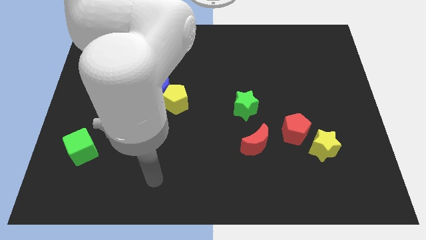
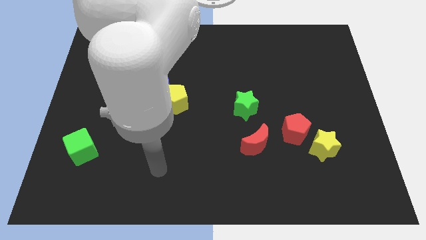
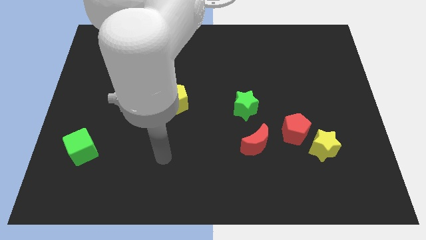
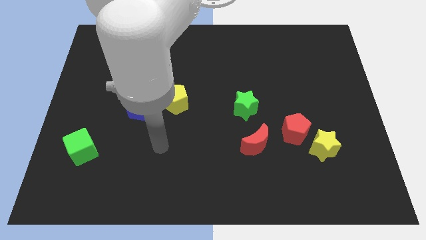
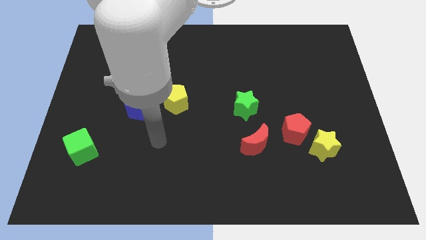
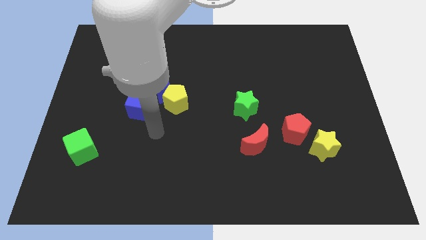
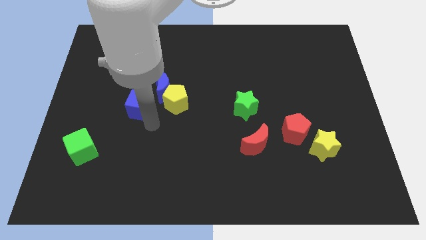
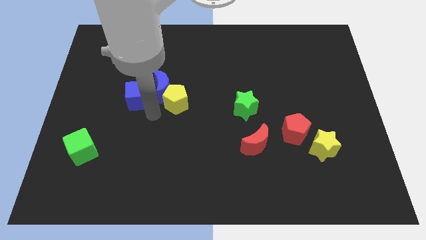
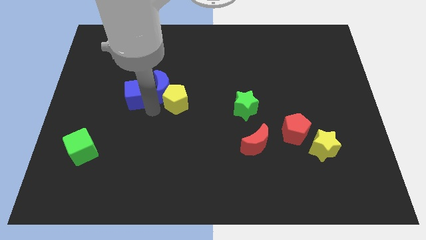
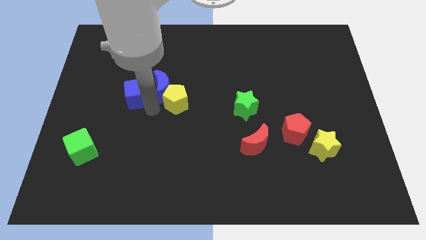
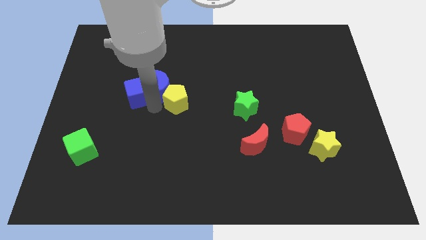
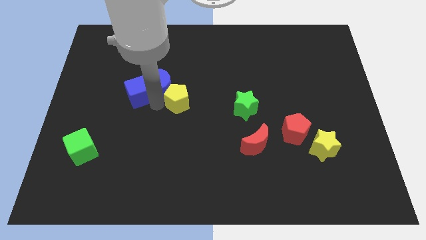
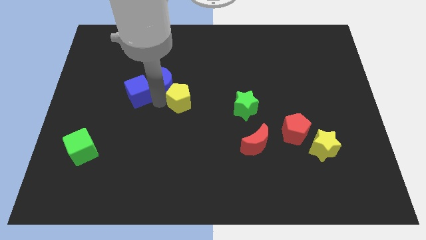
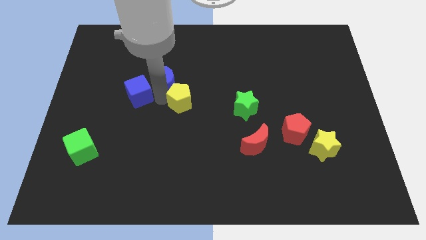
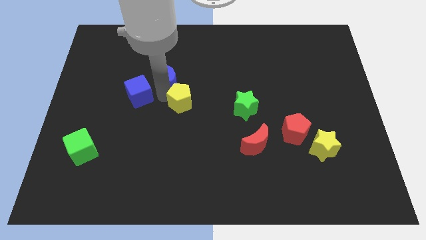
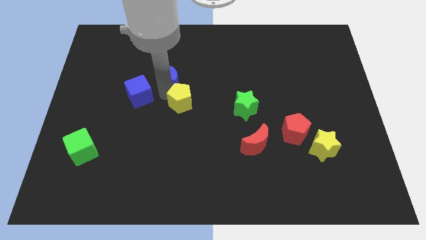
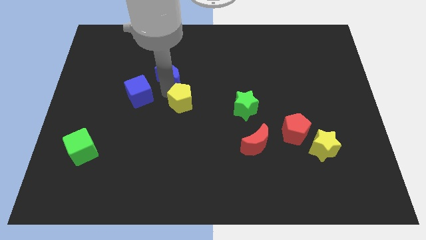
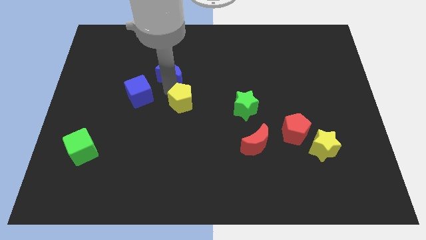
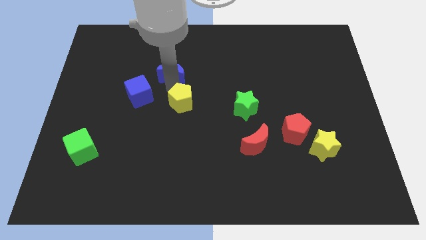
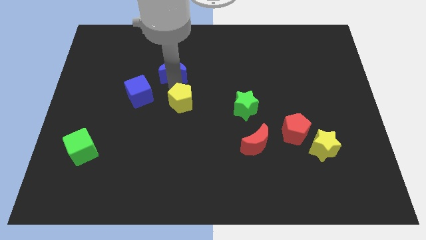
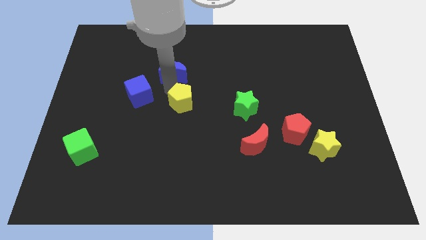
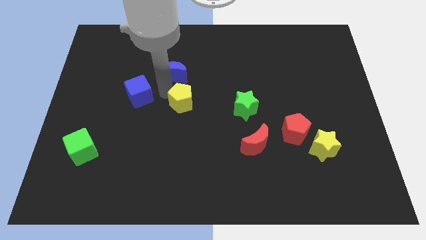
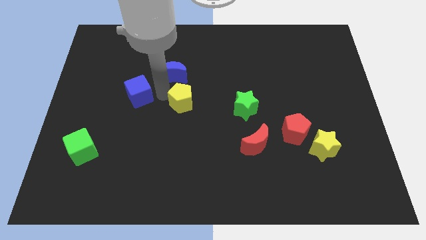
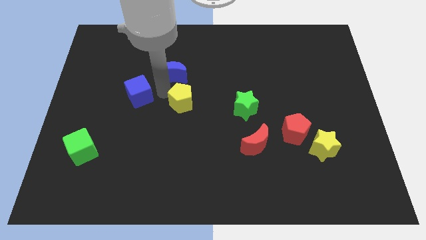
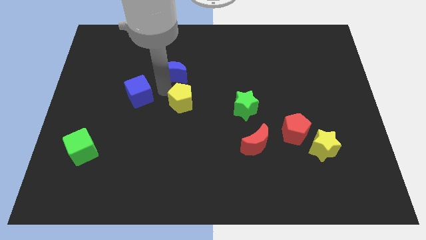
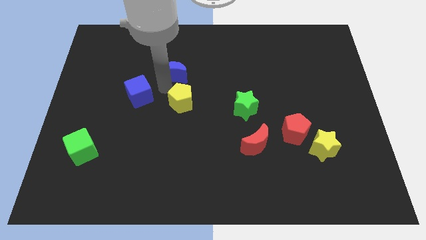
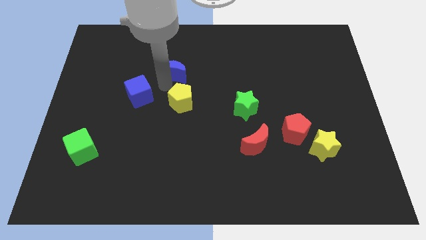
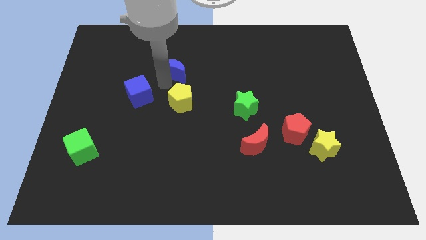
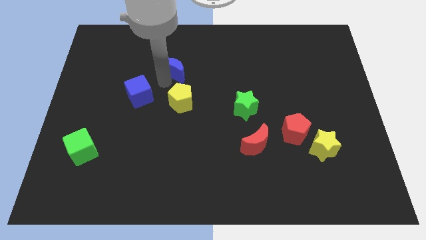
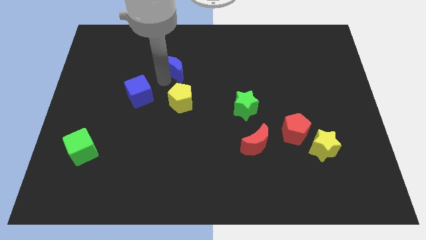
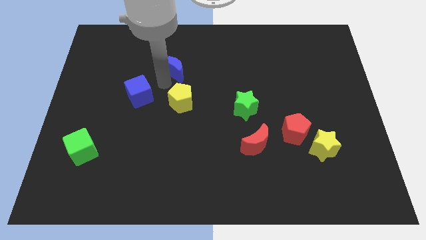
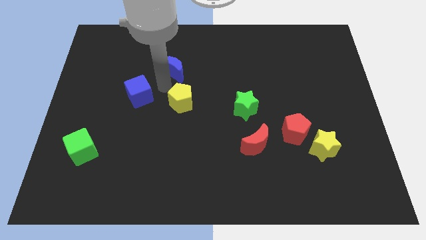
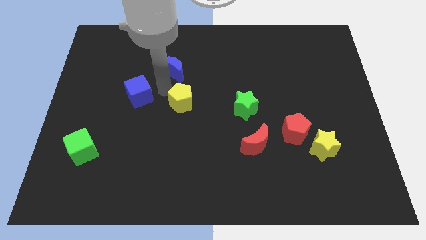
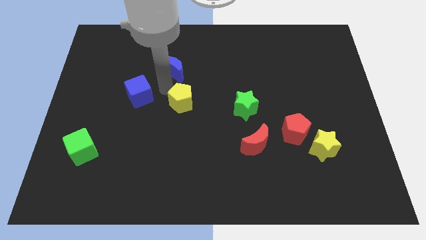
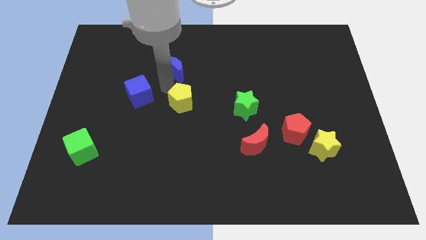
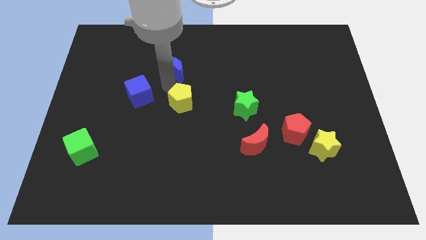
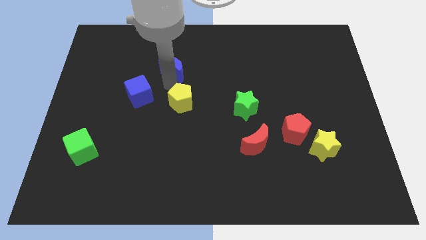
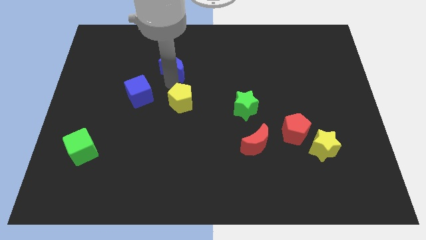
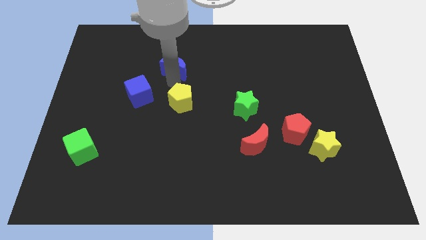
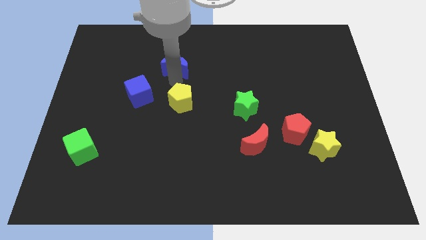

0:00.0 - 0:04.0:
move the blue moon away from the yellow pentagon and blue cube

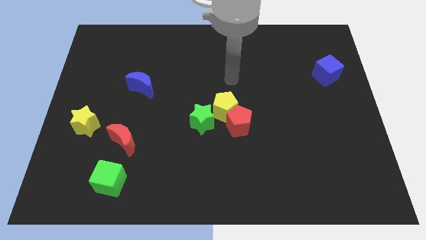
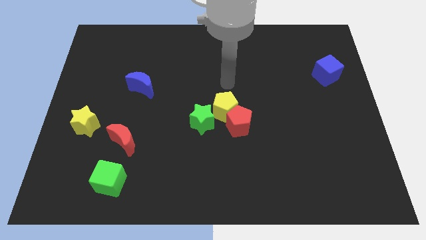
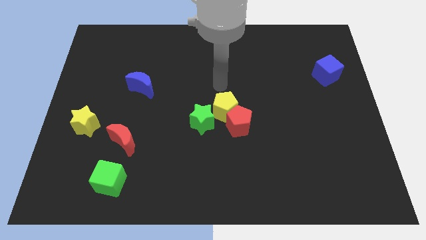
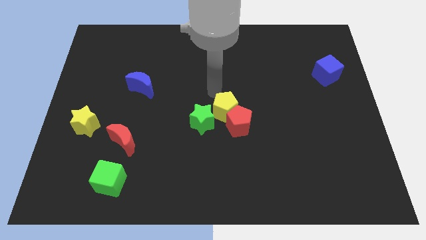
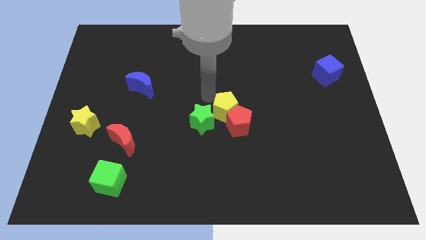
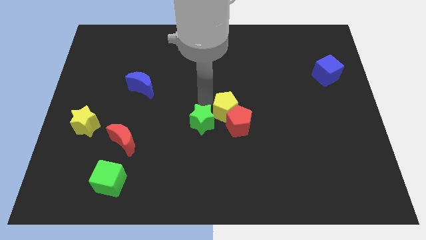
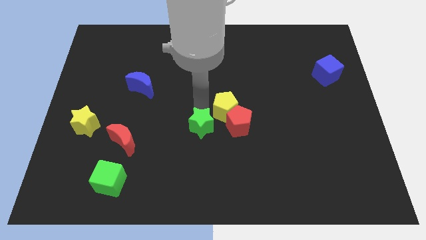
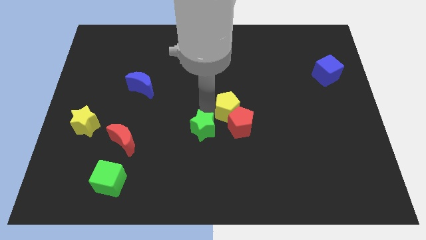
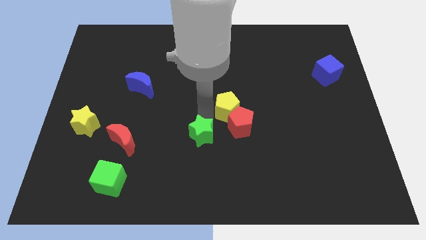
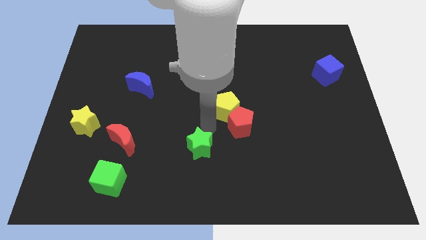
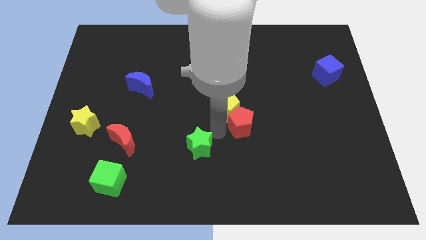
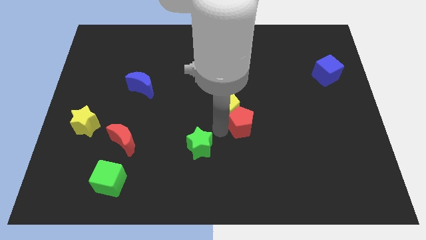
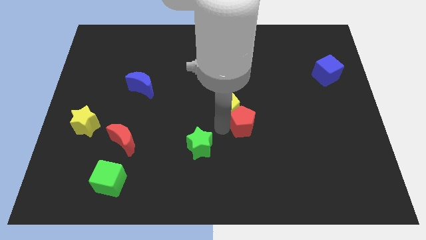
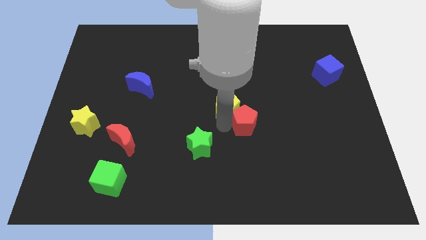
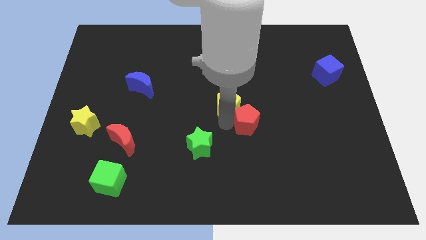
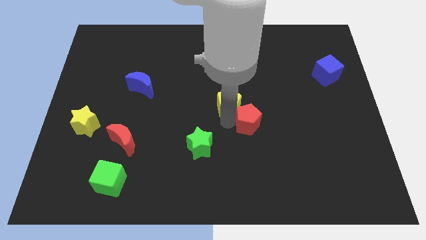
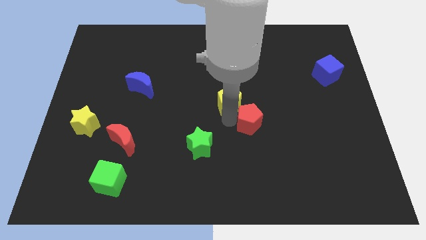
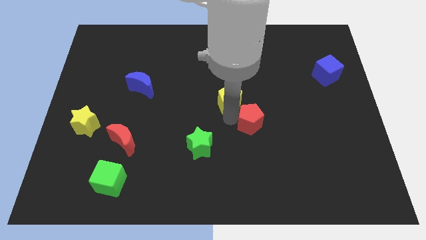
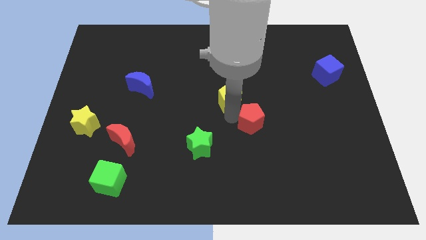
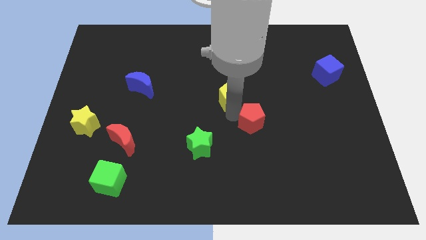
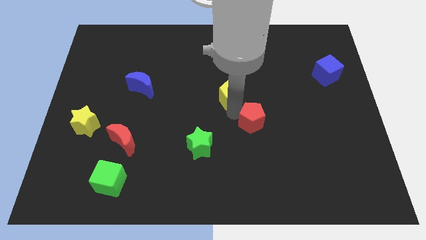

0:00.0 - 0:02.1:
separate the yellow pentagon from the red pentagon and green star

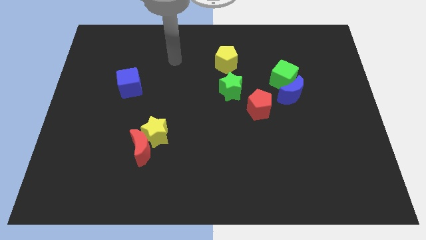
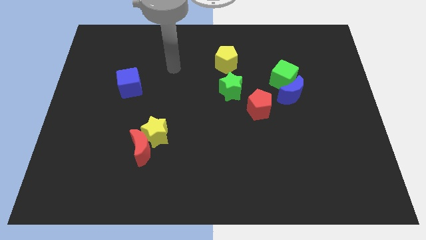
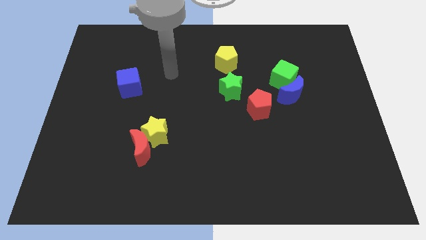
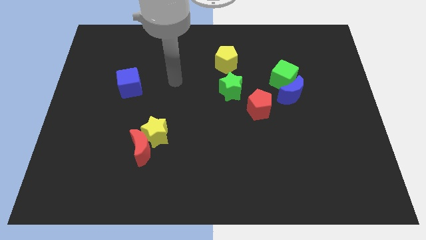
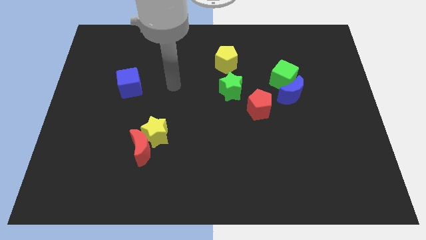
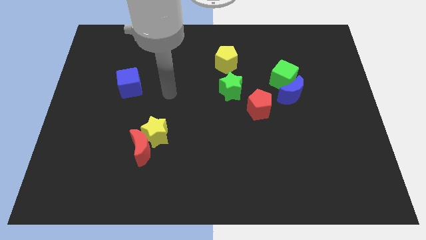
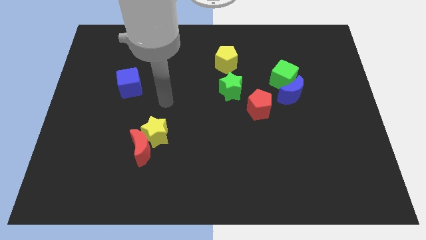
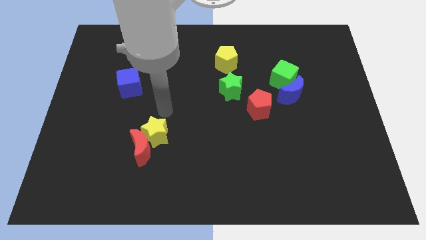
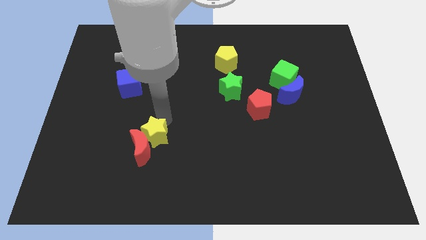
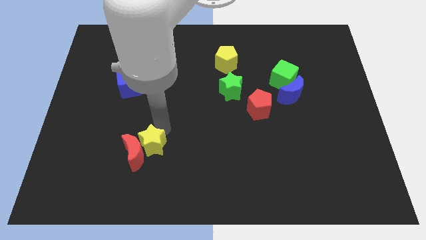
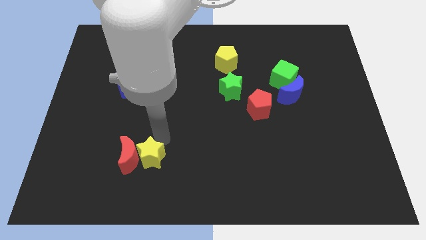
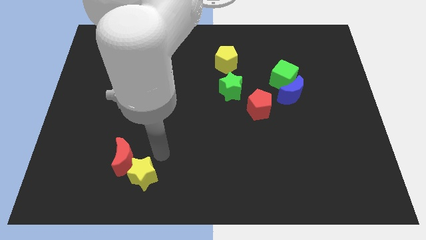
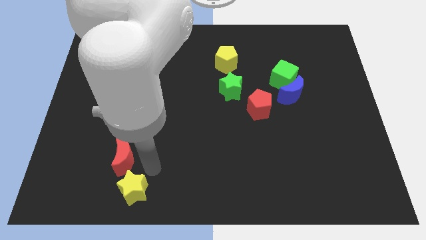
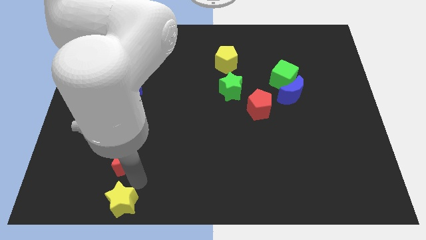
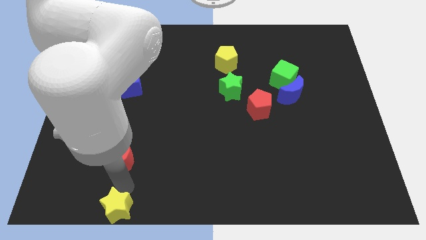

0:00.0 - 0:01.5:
pull the red moon apart from the yellow star

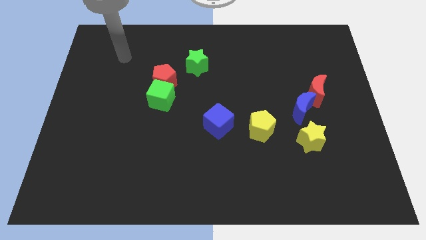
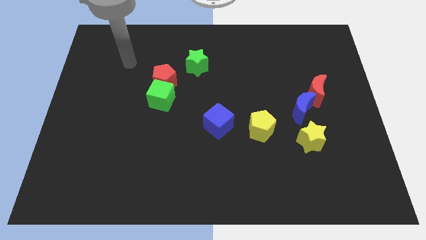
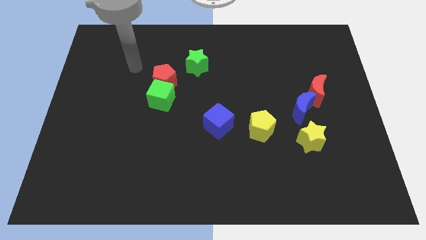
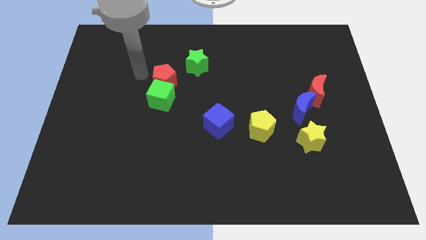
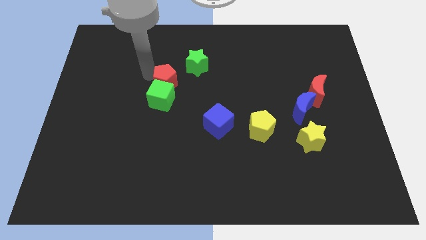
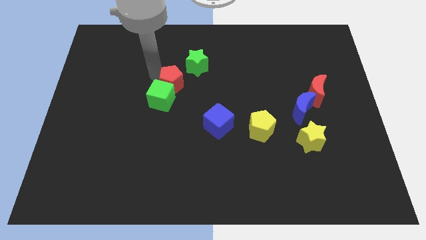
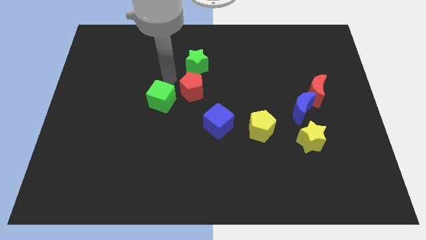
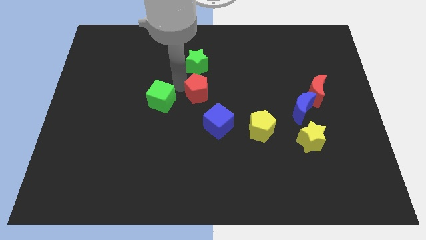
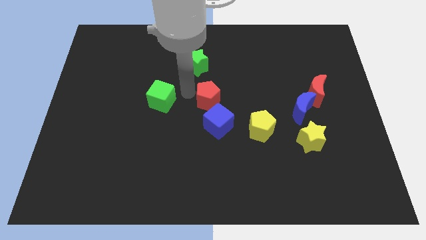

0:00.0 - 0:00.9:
separate the green cube from the red pentagon

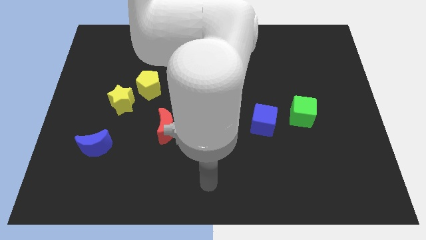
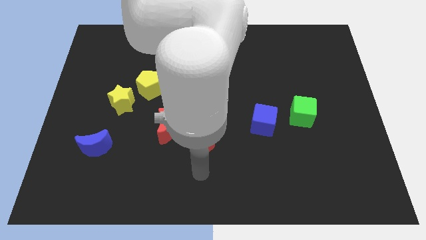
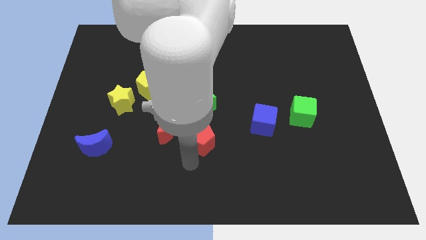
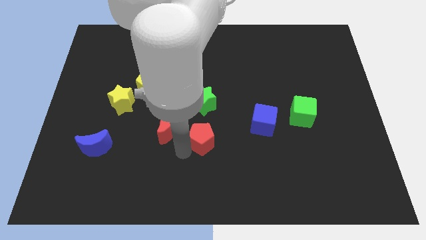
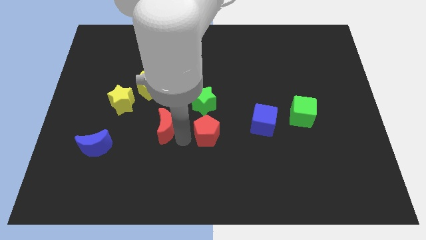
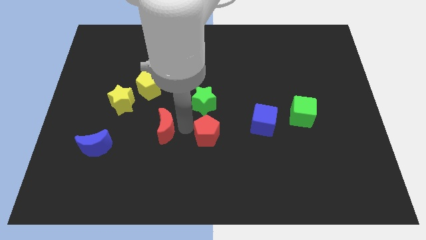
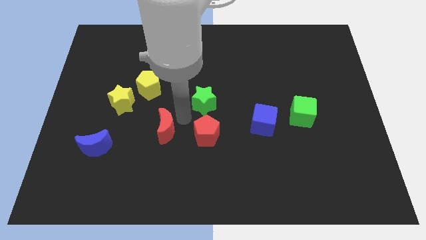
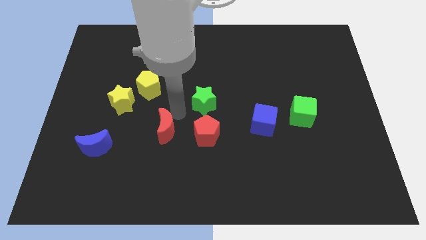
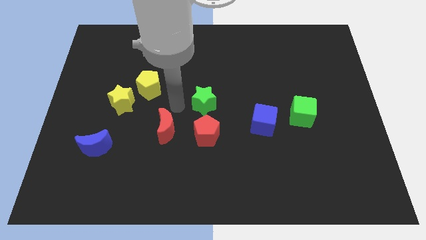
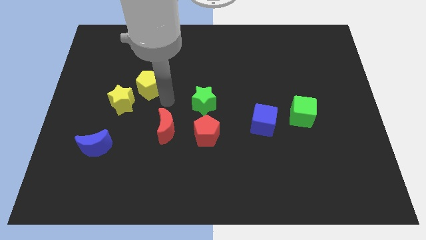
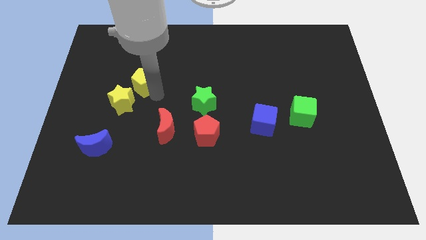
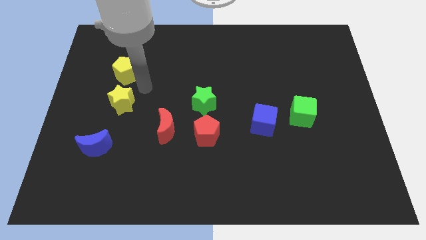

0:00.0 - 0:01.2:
move the yellow star away from the yellow pentagon
